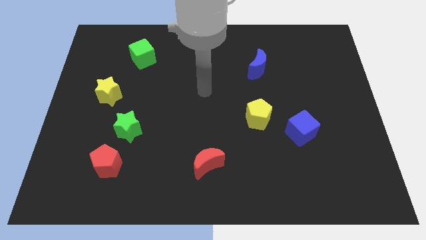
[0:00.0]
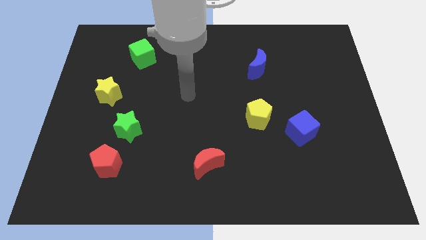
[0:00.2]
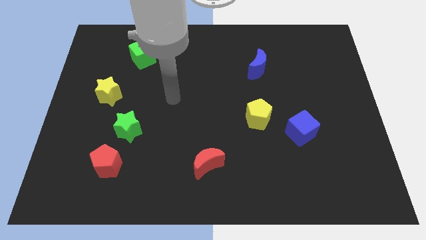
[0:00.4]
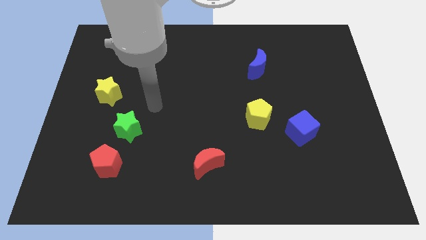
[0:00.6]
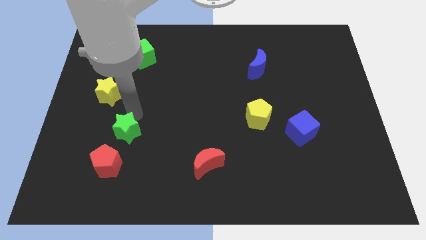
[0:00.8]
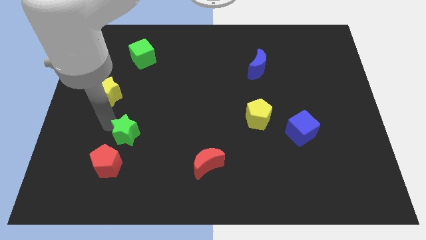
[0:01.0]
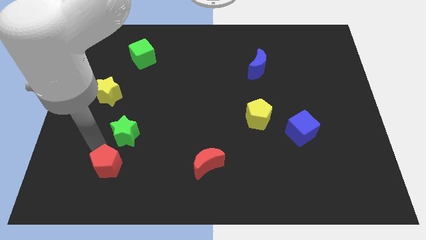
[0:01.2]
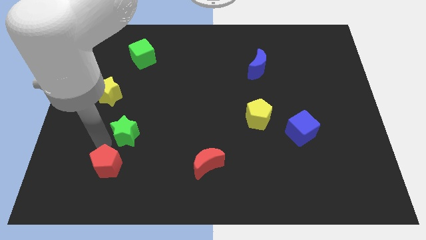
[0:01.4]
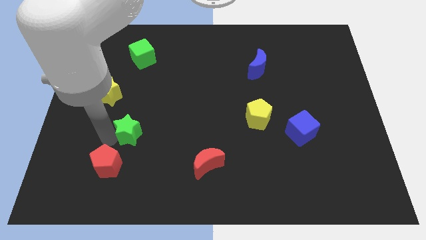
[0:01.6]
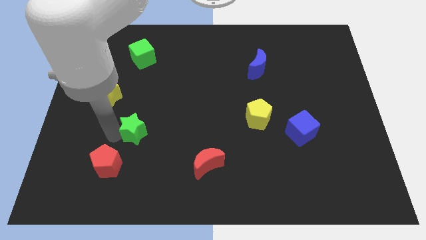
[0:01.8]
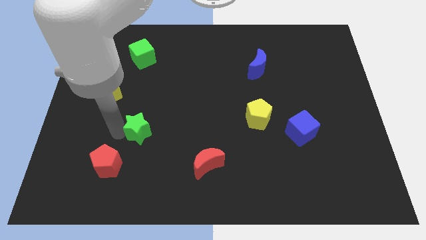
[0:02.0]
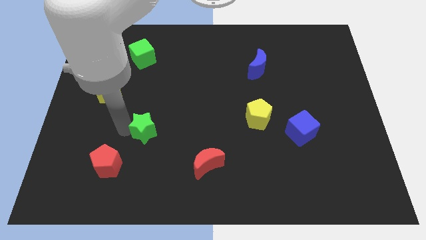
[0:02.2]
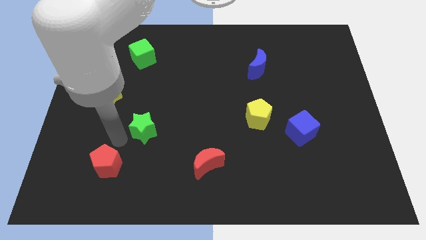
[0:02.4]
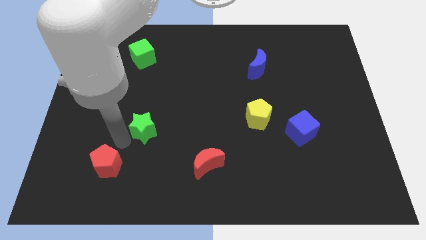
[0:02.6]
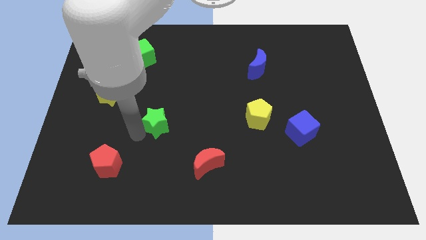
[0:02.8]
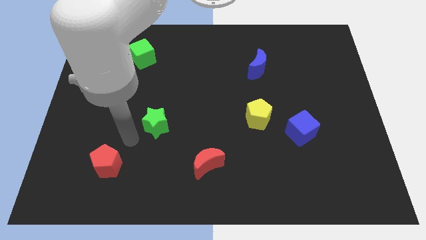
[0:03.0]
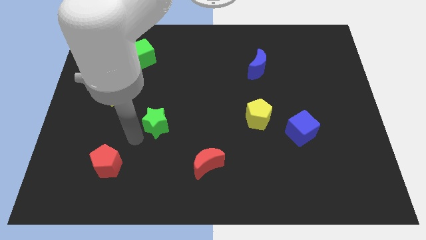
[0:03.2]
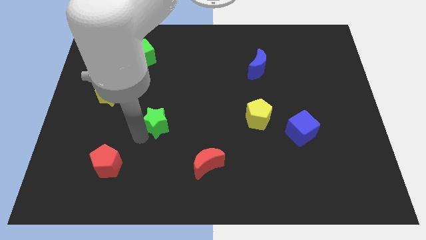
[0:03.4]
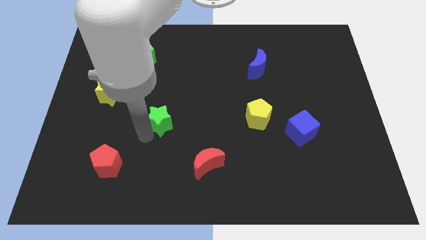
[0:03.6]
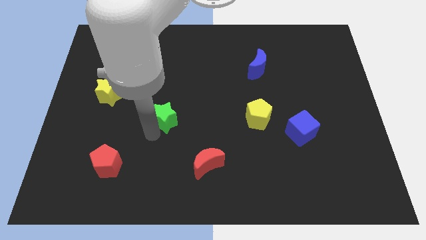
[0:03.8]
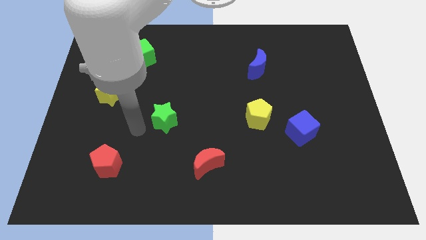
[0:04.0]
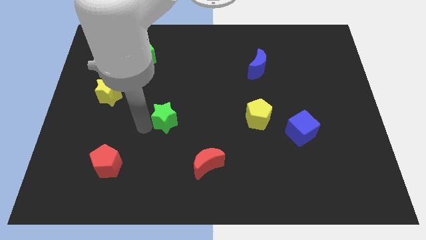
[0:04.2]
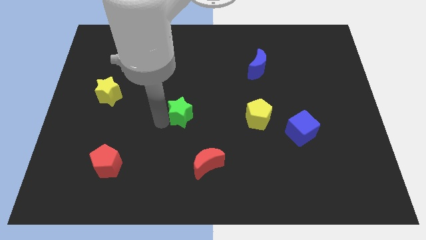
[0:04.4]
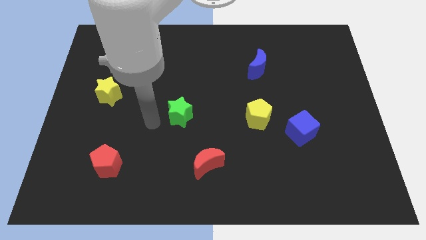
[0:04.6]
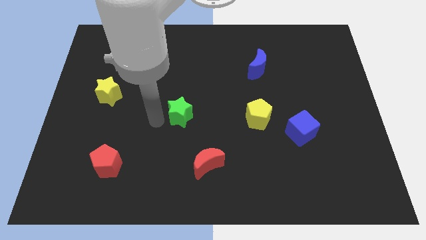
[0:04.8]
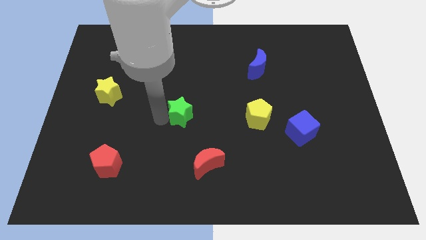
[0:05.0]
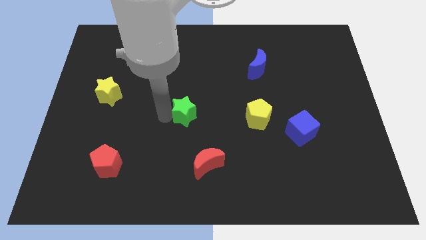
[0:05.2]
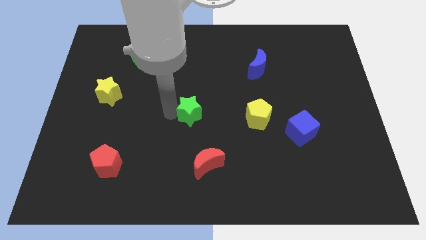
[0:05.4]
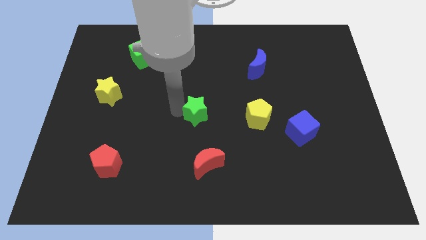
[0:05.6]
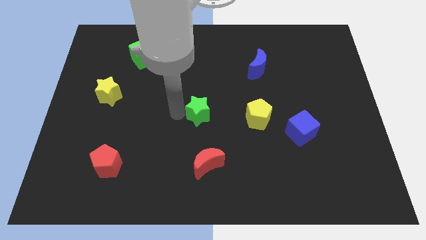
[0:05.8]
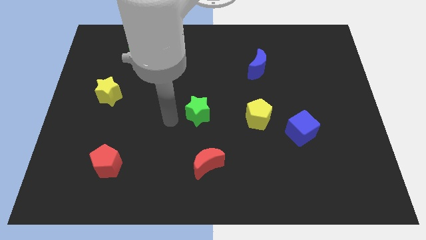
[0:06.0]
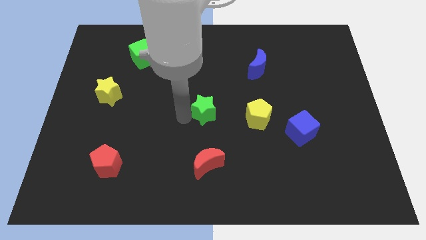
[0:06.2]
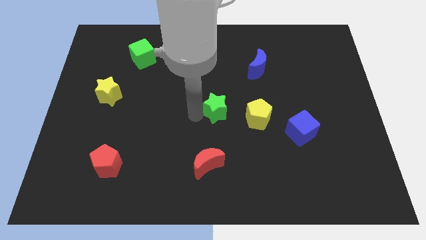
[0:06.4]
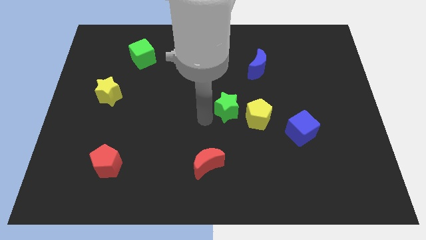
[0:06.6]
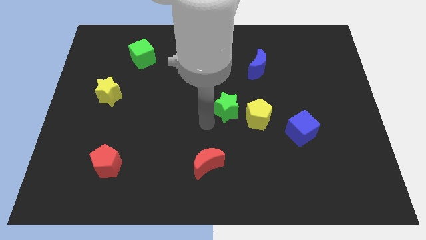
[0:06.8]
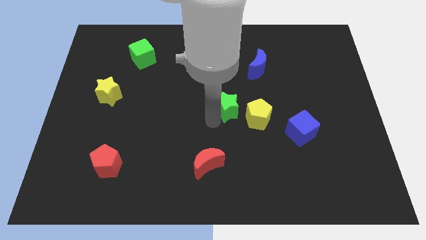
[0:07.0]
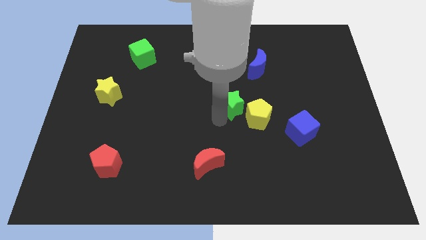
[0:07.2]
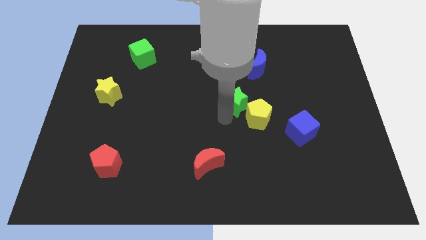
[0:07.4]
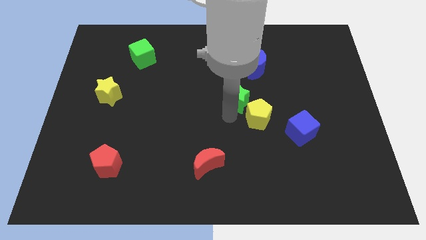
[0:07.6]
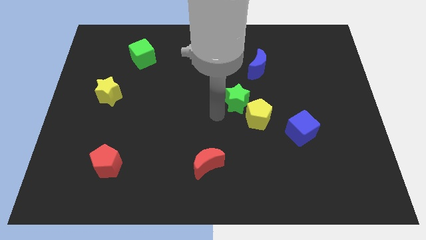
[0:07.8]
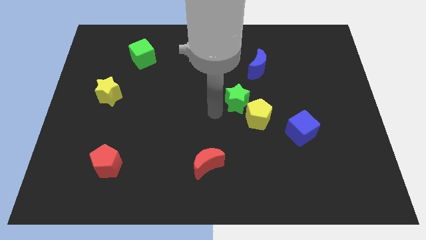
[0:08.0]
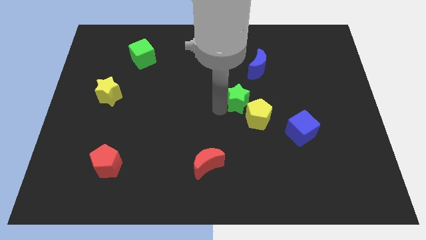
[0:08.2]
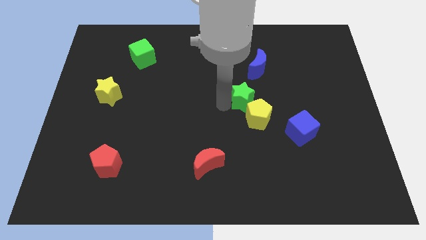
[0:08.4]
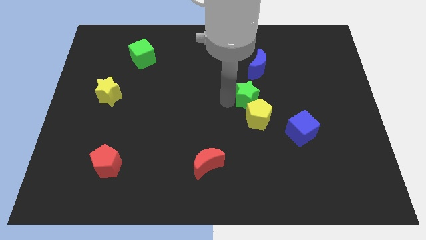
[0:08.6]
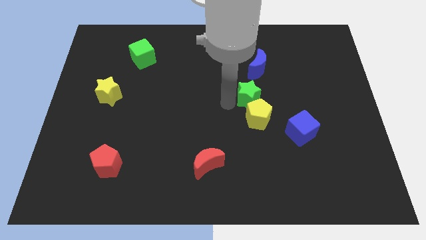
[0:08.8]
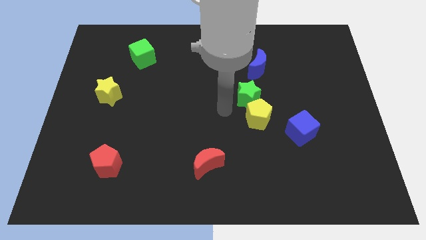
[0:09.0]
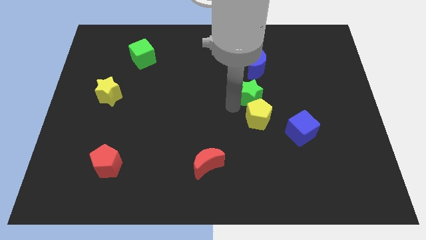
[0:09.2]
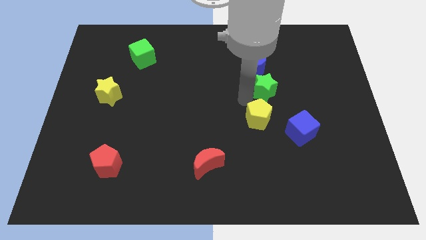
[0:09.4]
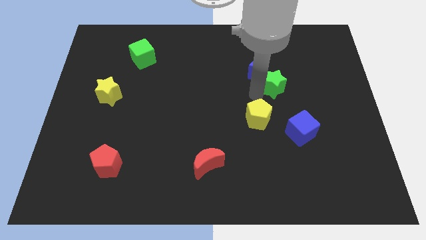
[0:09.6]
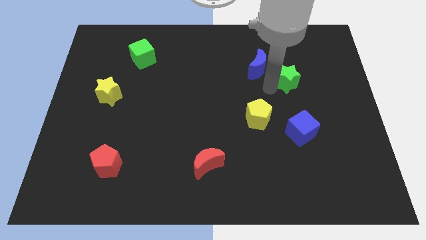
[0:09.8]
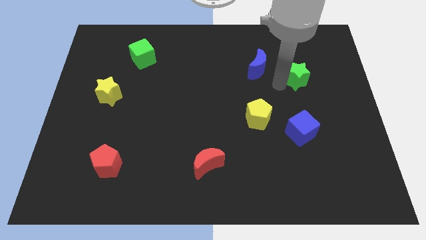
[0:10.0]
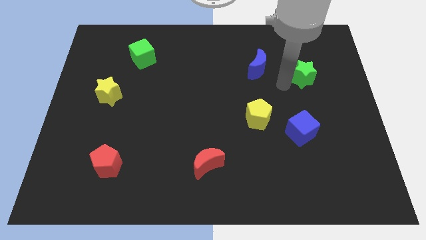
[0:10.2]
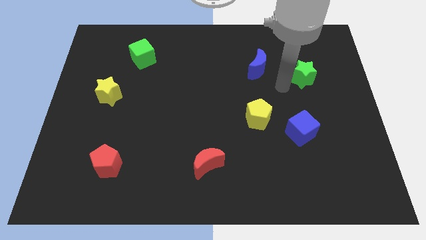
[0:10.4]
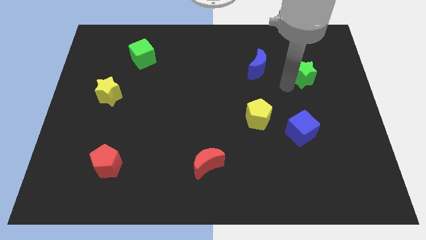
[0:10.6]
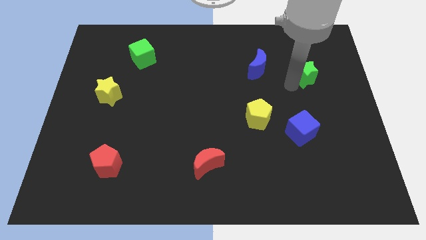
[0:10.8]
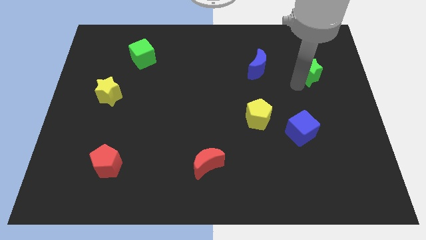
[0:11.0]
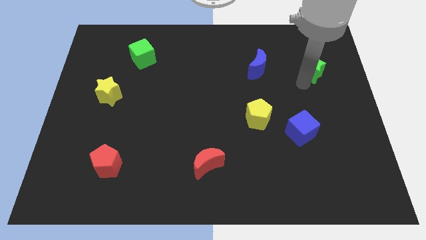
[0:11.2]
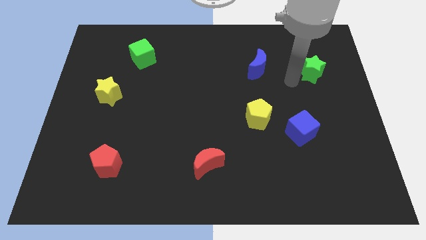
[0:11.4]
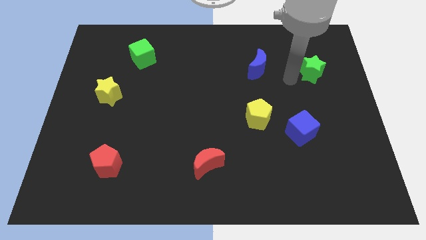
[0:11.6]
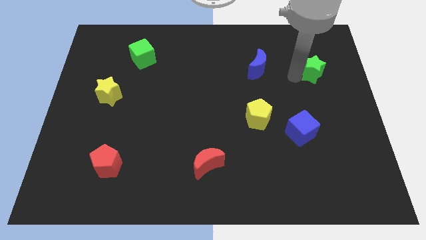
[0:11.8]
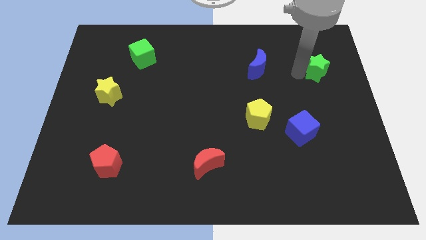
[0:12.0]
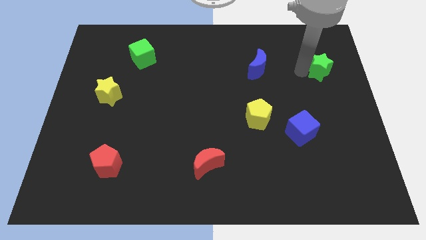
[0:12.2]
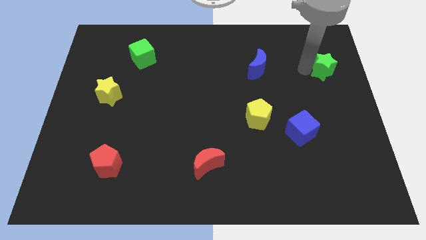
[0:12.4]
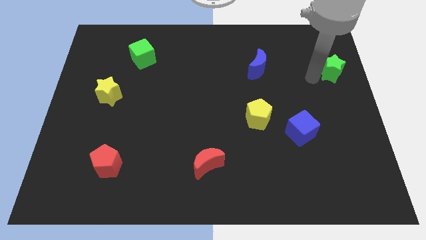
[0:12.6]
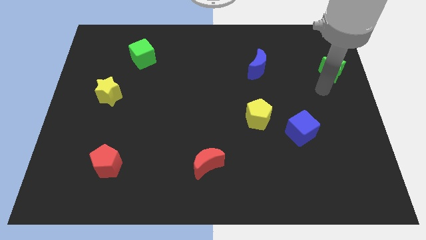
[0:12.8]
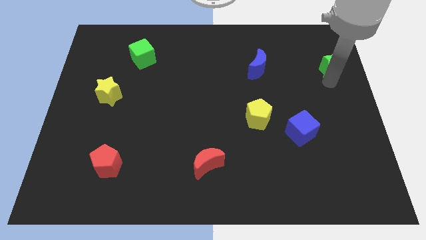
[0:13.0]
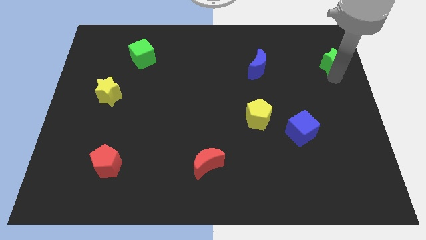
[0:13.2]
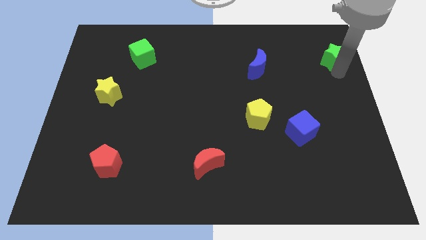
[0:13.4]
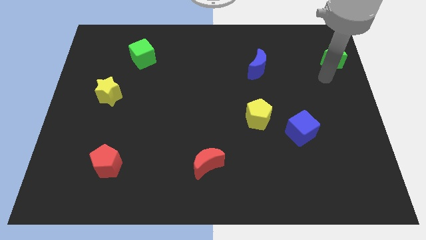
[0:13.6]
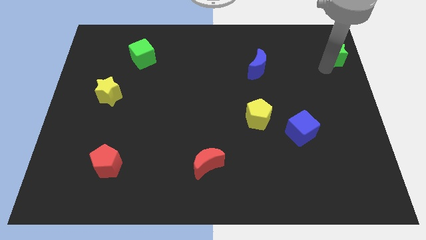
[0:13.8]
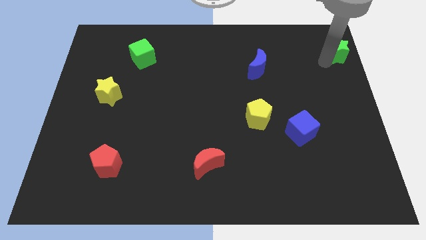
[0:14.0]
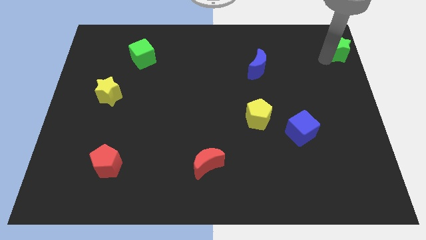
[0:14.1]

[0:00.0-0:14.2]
move the green star to the top right of the board

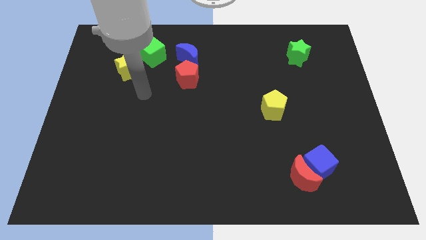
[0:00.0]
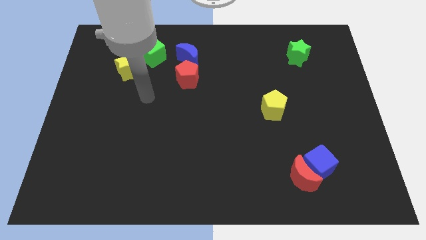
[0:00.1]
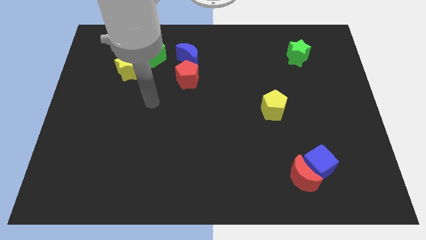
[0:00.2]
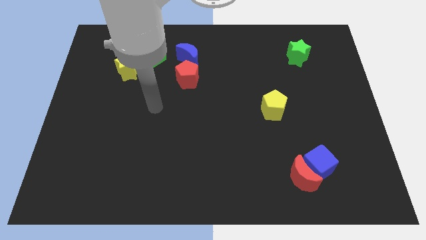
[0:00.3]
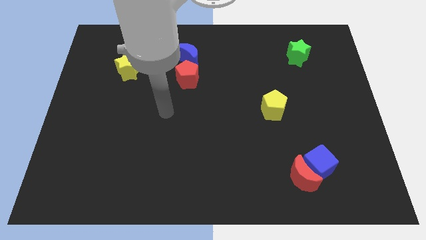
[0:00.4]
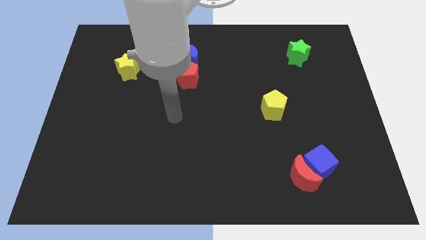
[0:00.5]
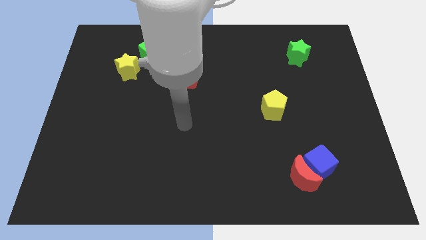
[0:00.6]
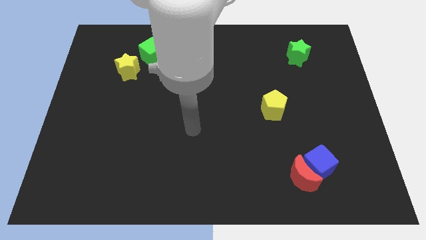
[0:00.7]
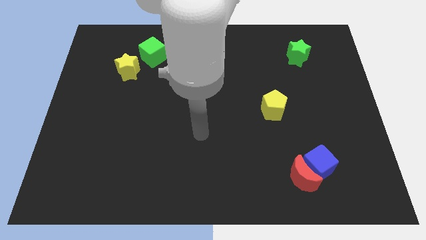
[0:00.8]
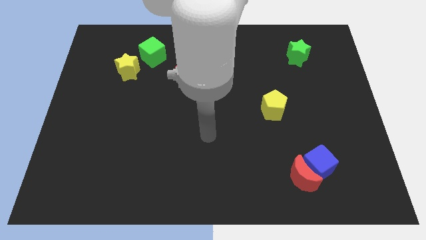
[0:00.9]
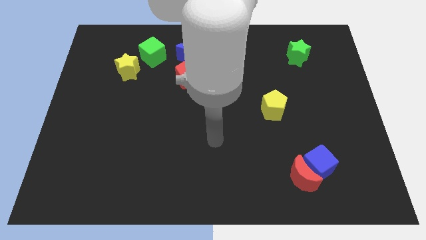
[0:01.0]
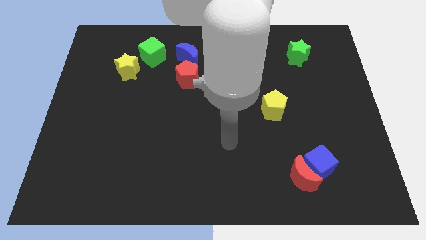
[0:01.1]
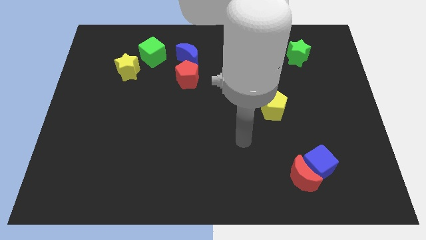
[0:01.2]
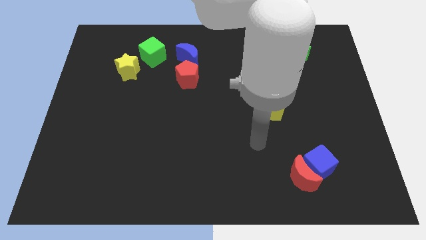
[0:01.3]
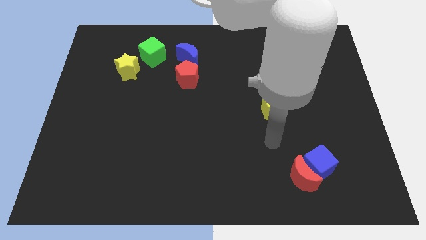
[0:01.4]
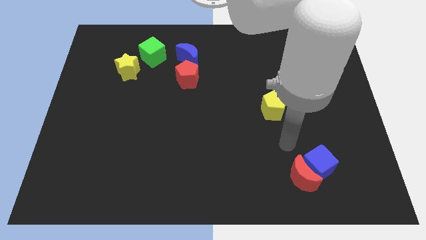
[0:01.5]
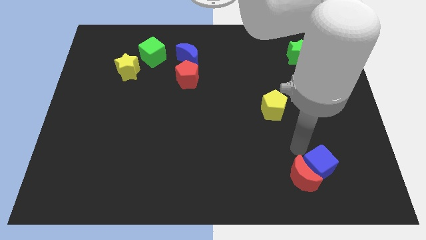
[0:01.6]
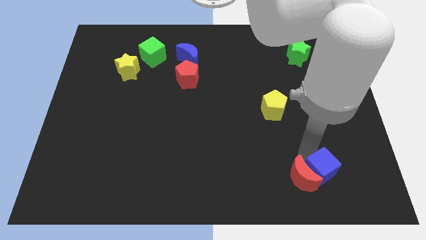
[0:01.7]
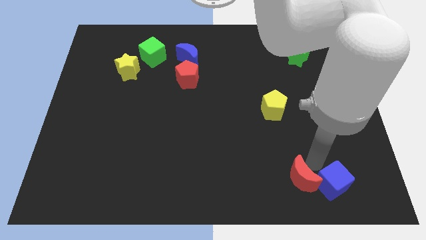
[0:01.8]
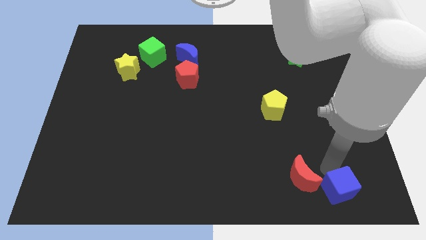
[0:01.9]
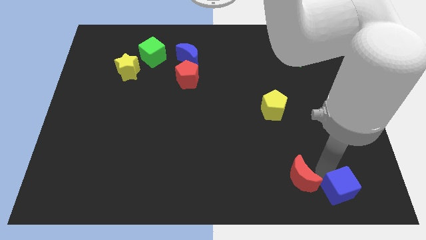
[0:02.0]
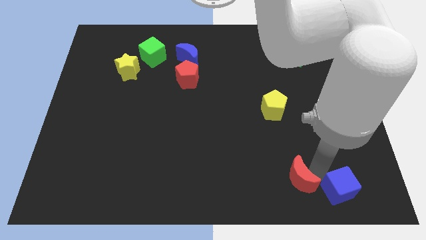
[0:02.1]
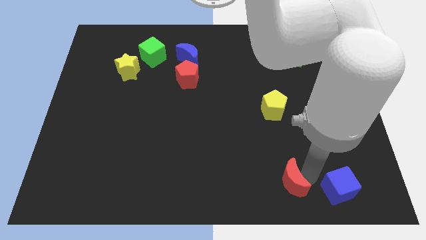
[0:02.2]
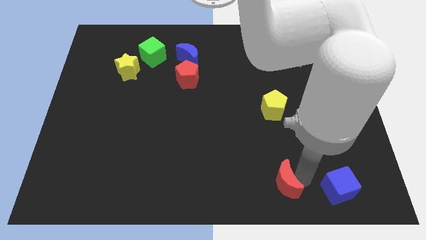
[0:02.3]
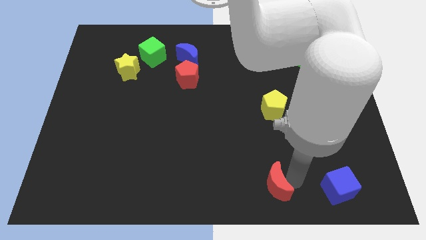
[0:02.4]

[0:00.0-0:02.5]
slide the red moon to the bottom side
